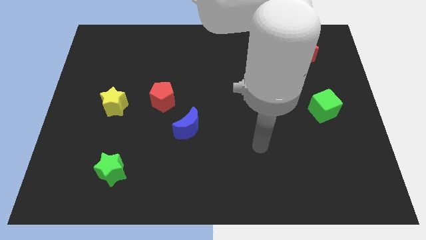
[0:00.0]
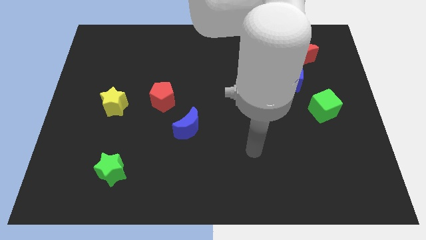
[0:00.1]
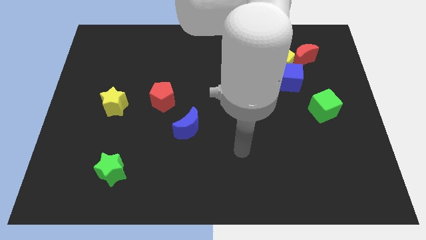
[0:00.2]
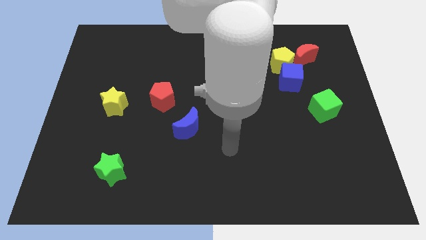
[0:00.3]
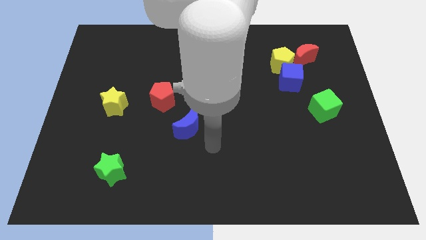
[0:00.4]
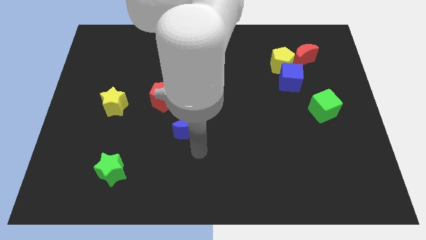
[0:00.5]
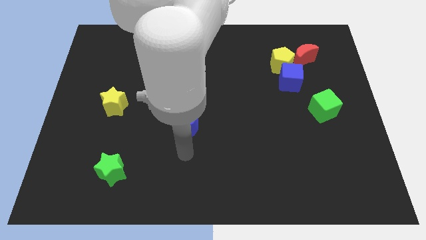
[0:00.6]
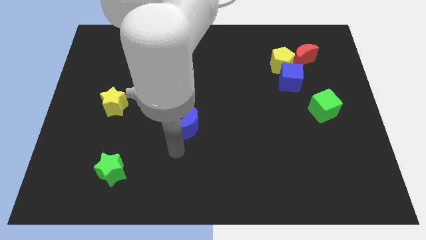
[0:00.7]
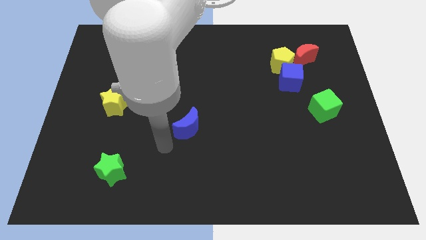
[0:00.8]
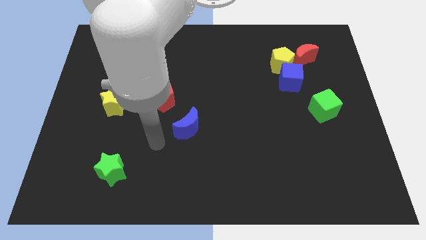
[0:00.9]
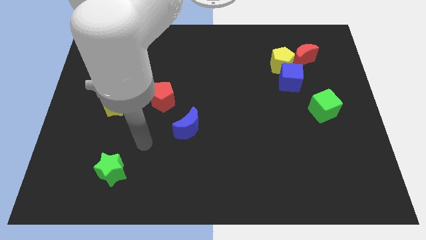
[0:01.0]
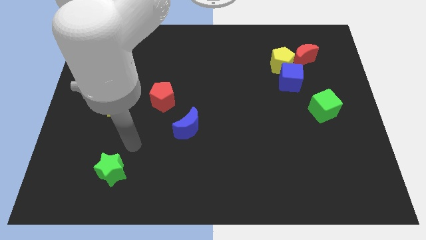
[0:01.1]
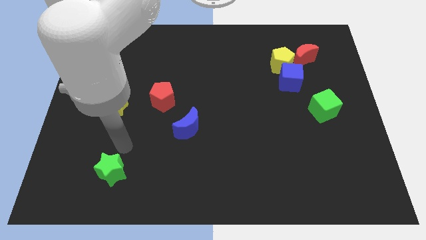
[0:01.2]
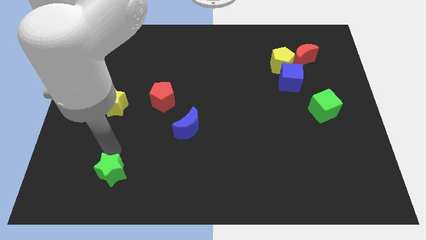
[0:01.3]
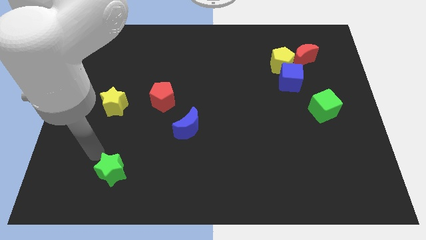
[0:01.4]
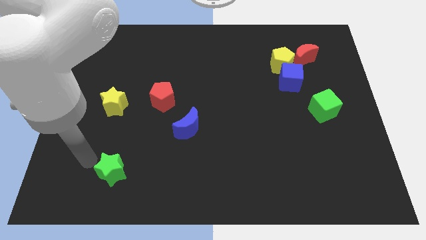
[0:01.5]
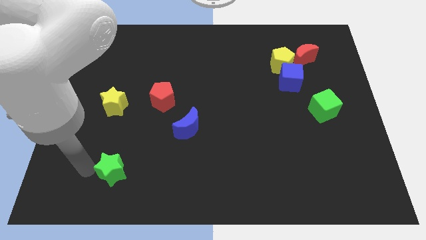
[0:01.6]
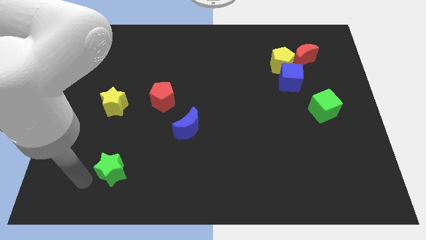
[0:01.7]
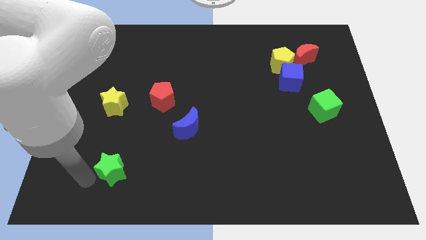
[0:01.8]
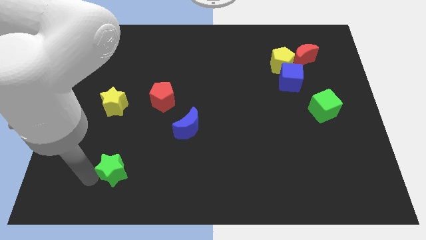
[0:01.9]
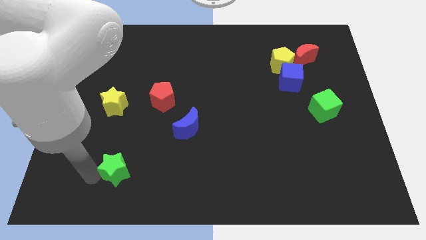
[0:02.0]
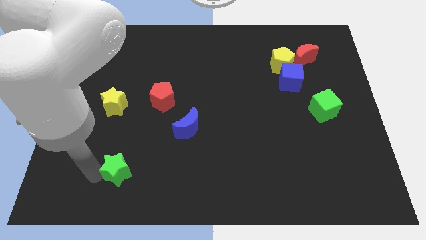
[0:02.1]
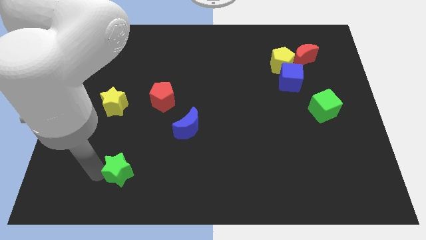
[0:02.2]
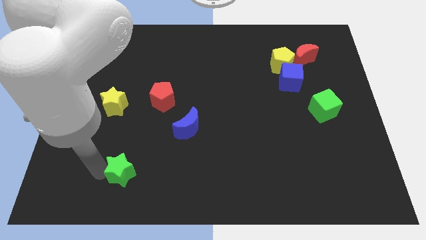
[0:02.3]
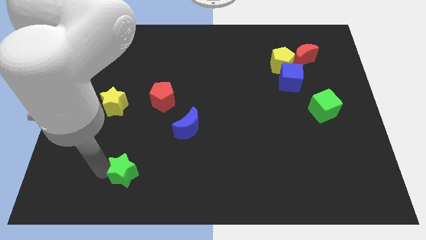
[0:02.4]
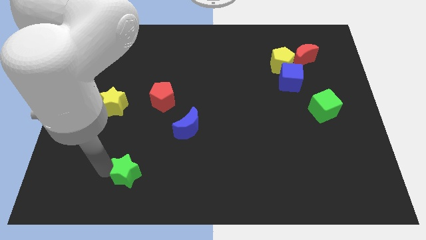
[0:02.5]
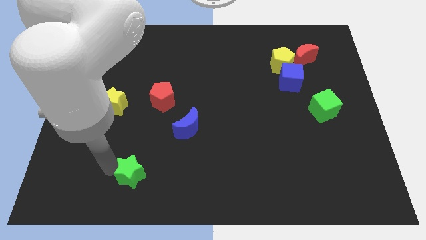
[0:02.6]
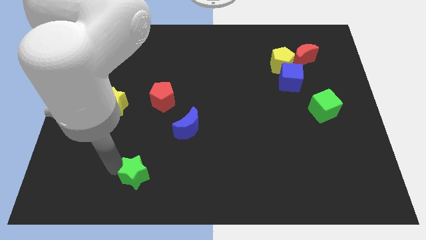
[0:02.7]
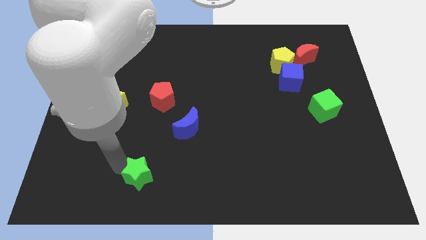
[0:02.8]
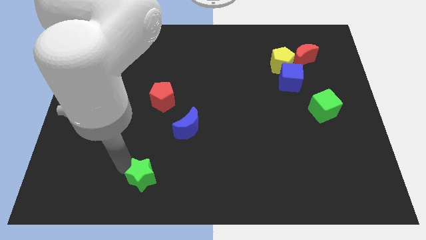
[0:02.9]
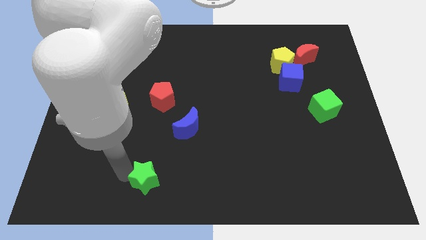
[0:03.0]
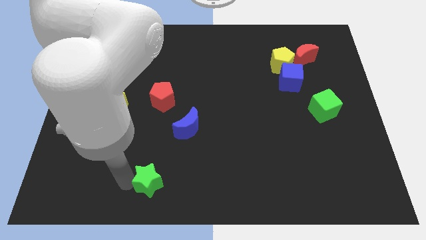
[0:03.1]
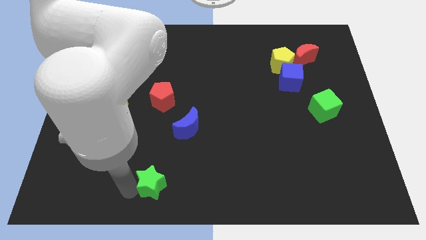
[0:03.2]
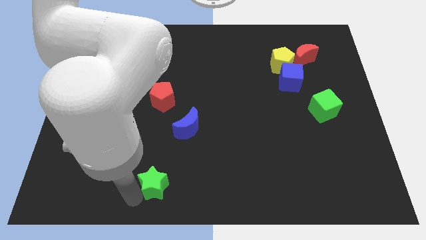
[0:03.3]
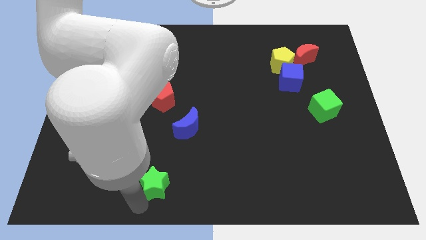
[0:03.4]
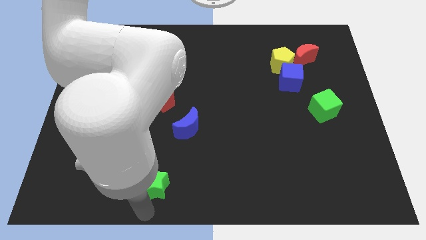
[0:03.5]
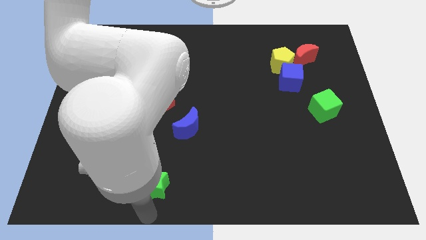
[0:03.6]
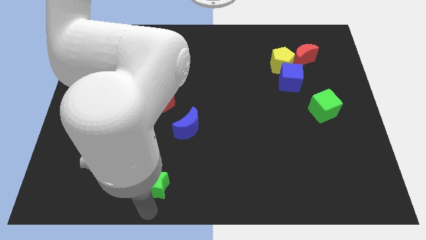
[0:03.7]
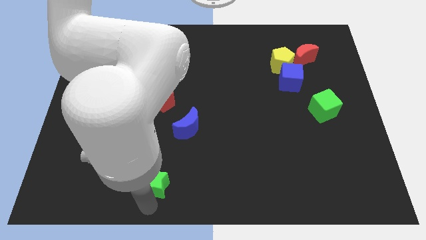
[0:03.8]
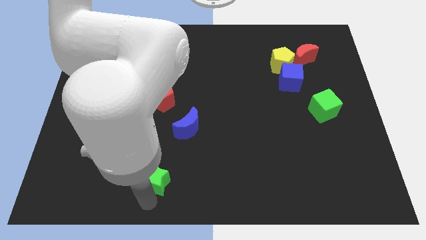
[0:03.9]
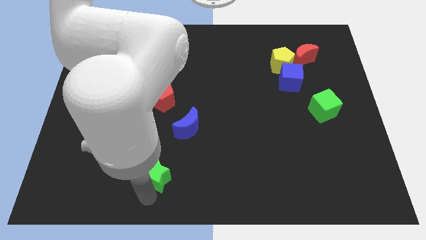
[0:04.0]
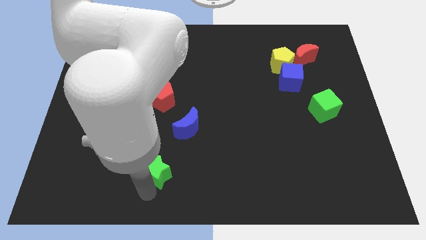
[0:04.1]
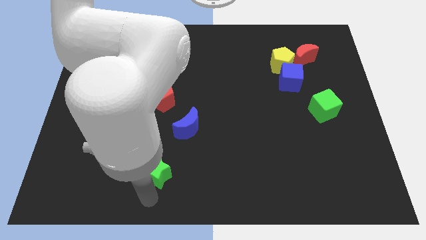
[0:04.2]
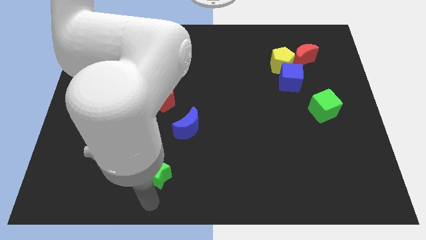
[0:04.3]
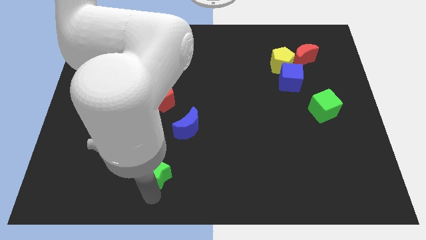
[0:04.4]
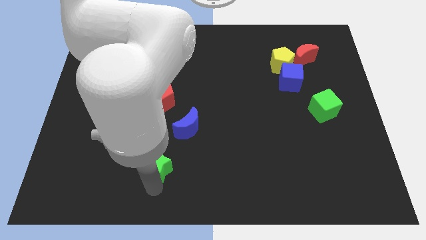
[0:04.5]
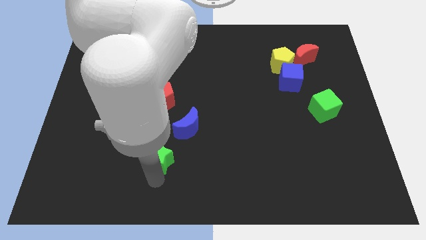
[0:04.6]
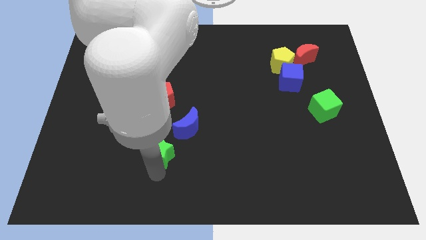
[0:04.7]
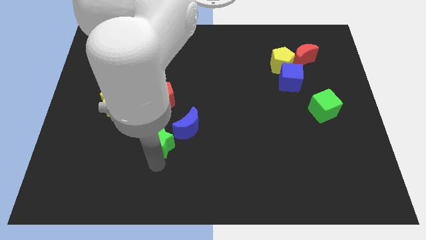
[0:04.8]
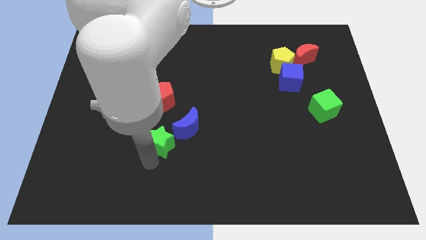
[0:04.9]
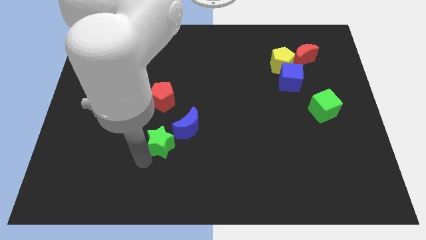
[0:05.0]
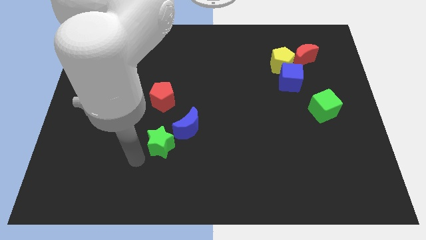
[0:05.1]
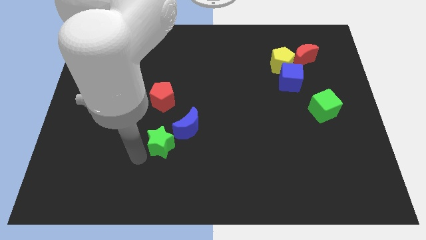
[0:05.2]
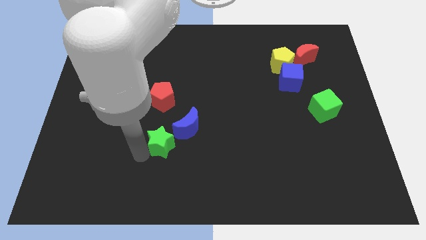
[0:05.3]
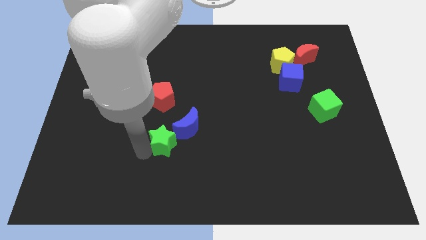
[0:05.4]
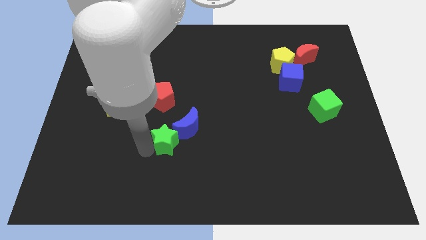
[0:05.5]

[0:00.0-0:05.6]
move the green star next to the blue moon

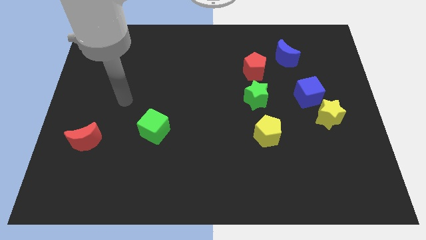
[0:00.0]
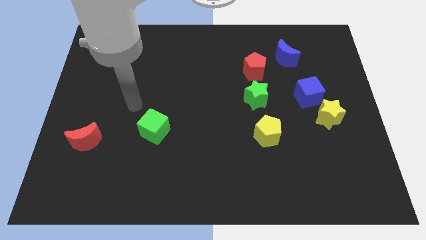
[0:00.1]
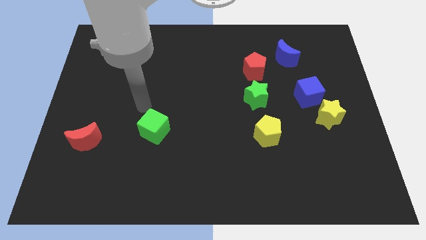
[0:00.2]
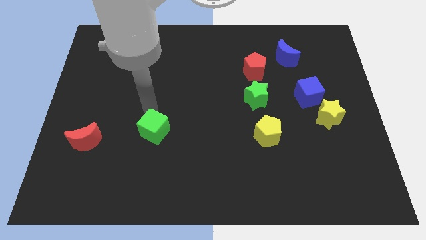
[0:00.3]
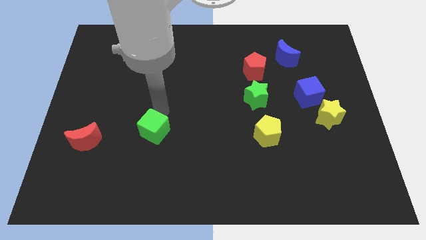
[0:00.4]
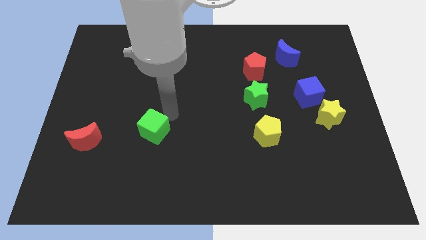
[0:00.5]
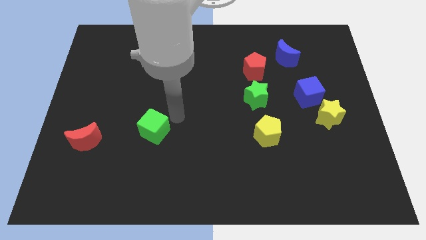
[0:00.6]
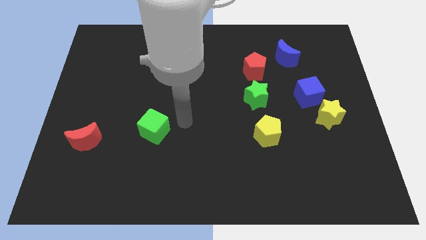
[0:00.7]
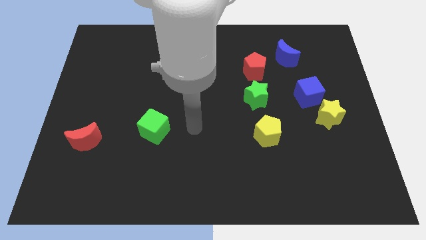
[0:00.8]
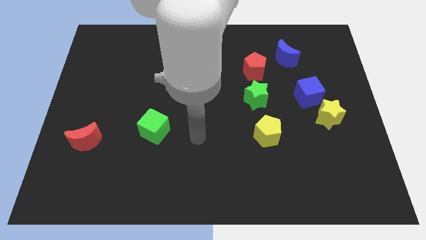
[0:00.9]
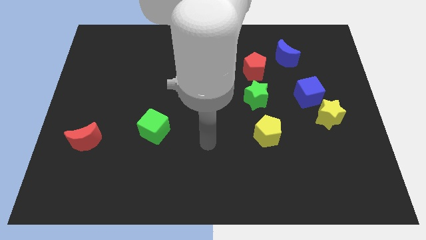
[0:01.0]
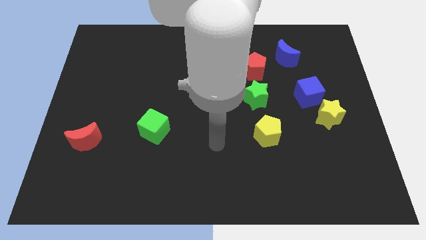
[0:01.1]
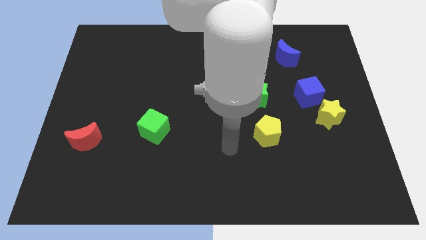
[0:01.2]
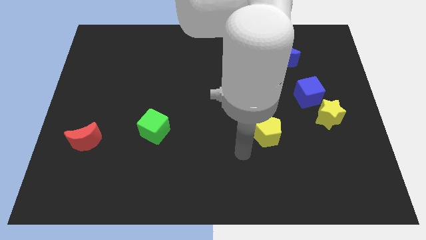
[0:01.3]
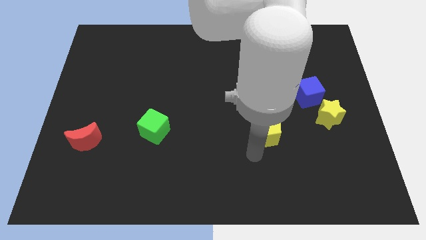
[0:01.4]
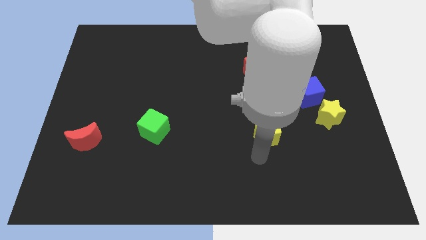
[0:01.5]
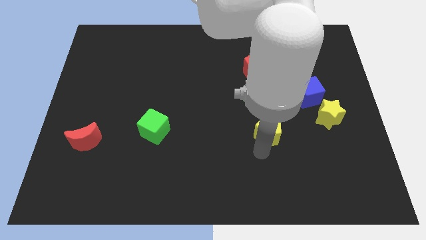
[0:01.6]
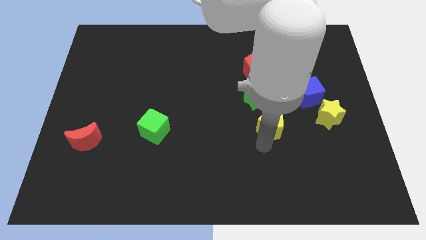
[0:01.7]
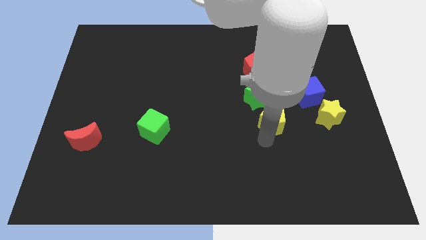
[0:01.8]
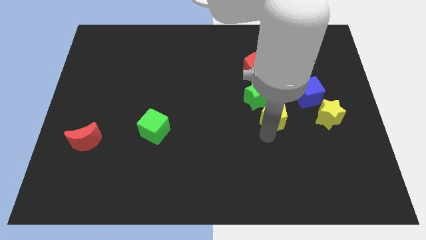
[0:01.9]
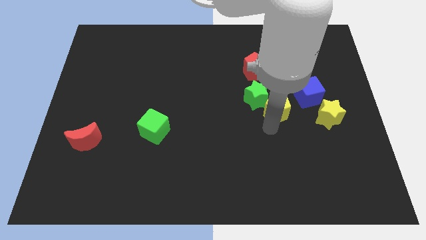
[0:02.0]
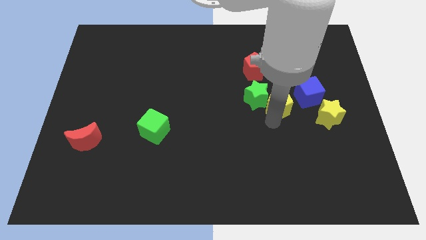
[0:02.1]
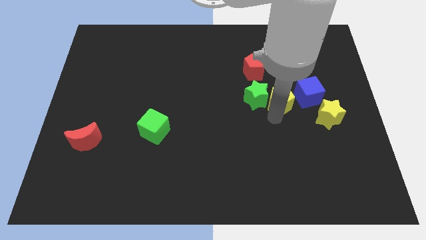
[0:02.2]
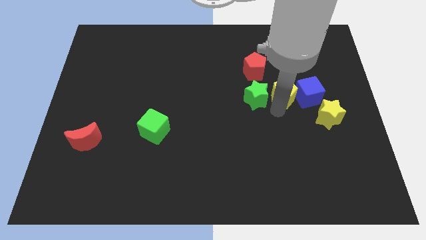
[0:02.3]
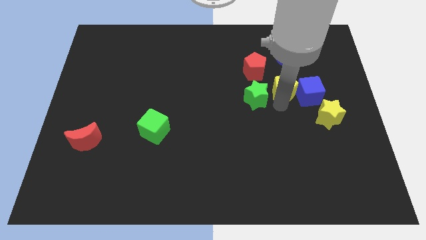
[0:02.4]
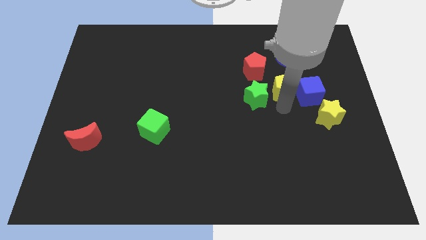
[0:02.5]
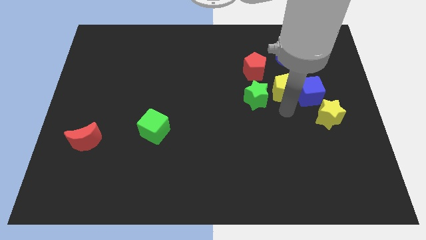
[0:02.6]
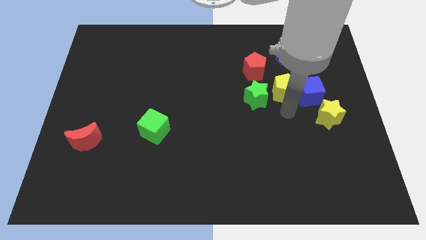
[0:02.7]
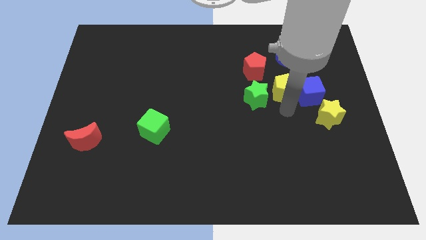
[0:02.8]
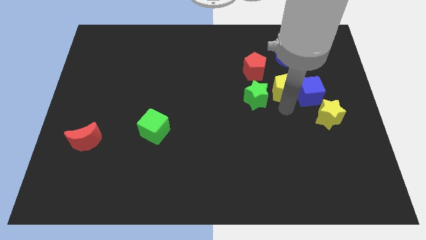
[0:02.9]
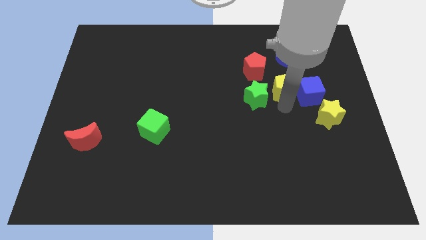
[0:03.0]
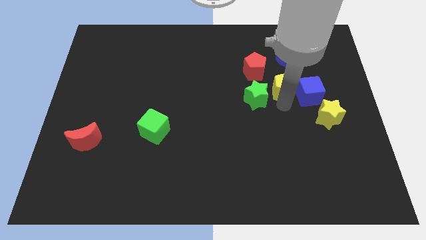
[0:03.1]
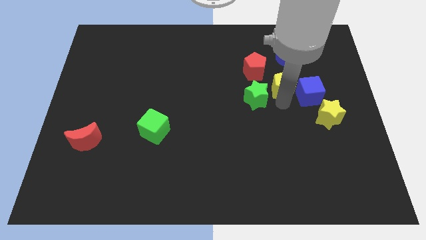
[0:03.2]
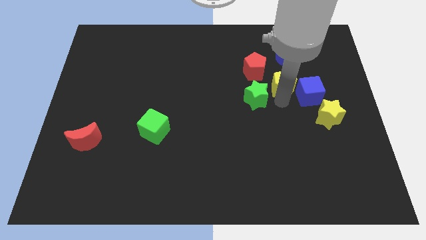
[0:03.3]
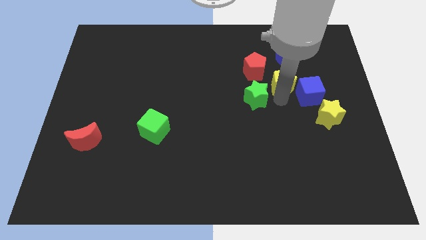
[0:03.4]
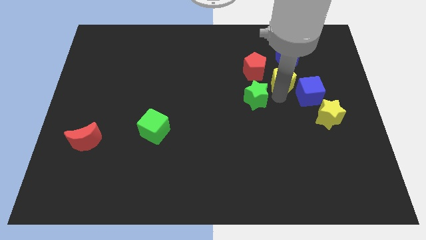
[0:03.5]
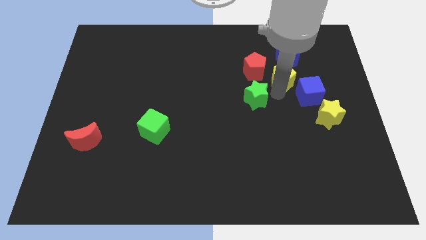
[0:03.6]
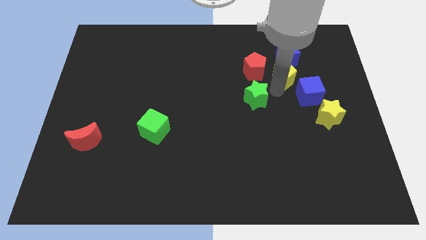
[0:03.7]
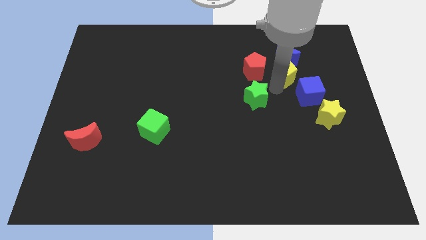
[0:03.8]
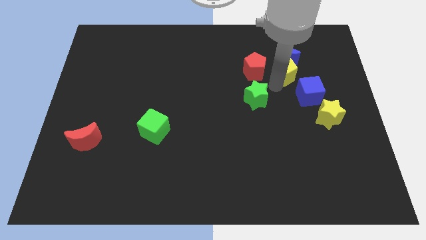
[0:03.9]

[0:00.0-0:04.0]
slide the yellow pentagon towards the blue moon
